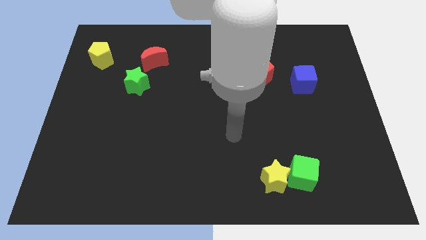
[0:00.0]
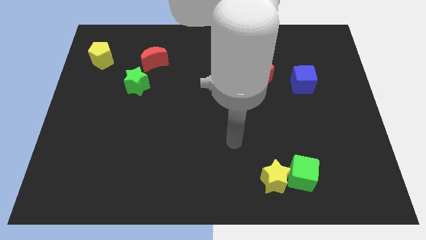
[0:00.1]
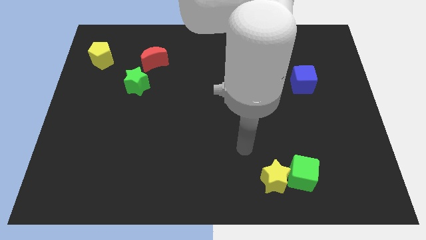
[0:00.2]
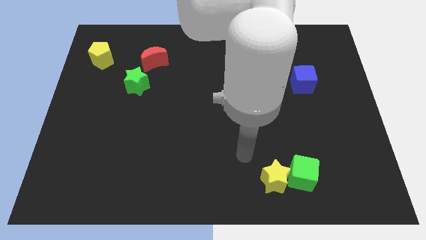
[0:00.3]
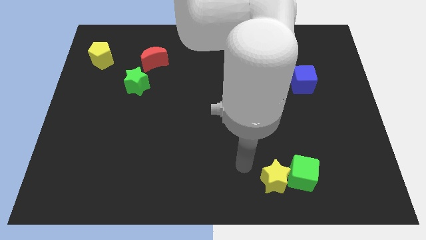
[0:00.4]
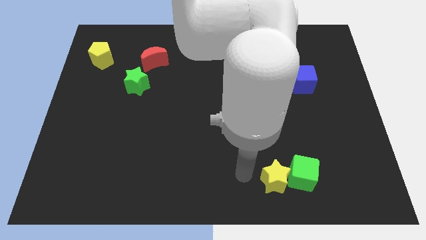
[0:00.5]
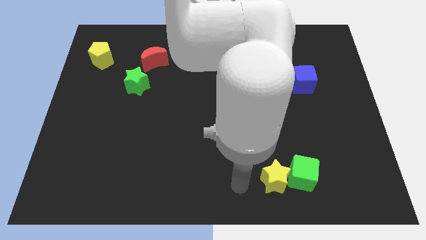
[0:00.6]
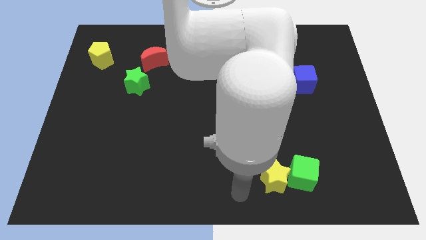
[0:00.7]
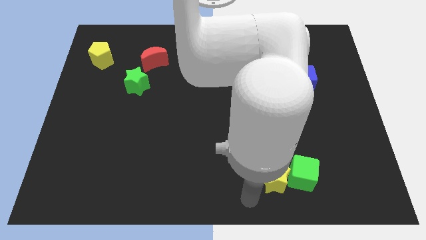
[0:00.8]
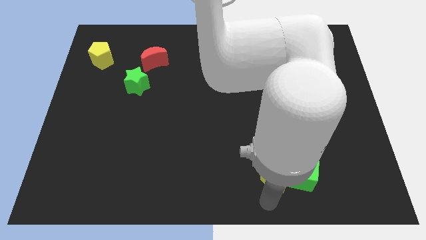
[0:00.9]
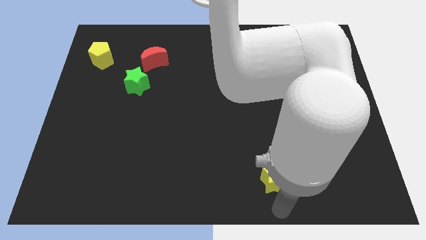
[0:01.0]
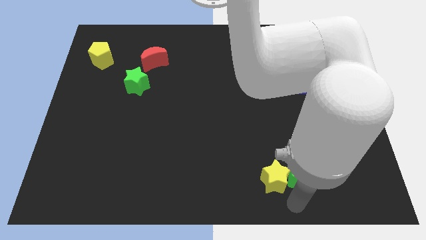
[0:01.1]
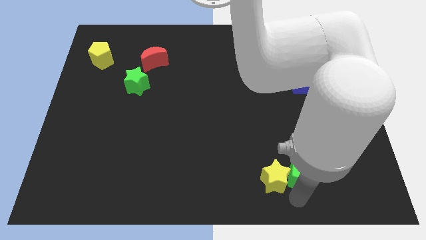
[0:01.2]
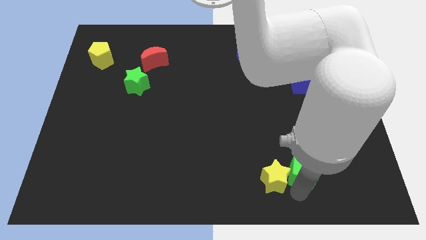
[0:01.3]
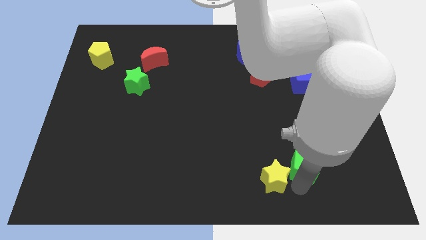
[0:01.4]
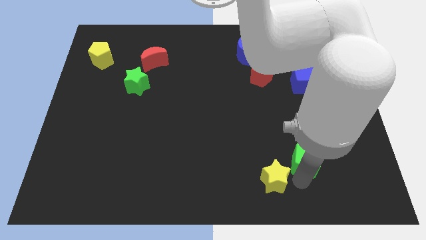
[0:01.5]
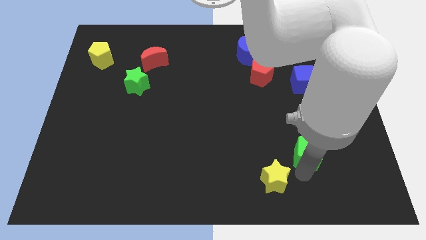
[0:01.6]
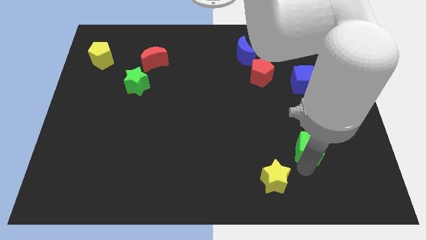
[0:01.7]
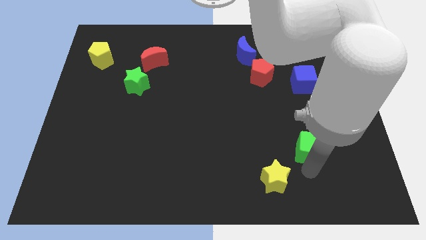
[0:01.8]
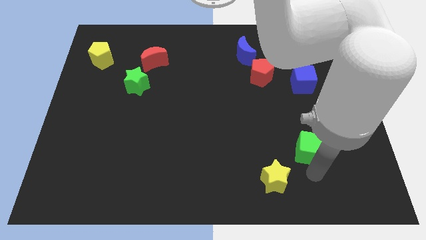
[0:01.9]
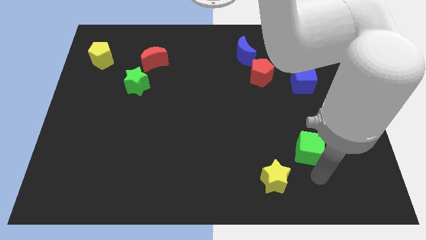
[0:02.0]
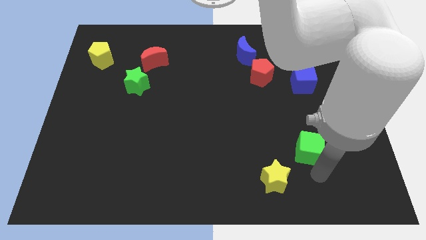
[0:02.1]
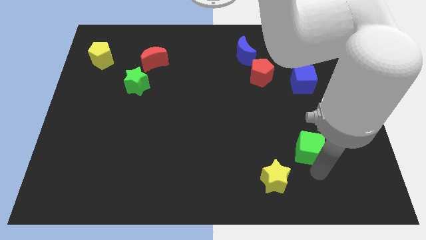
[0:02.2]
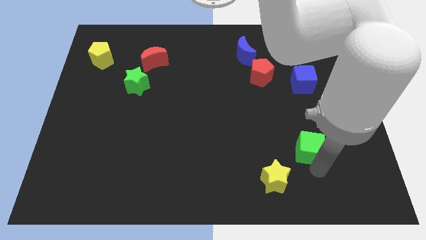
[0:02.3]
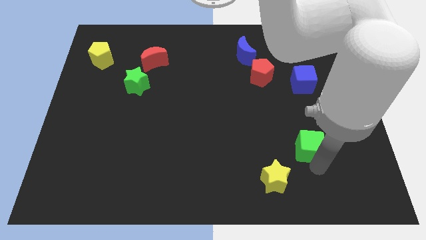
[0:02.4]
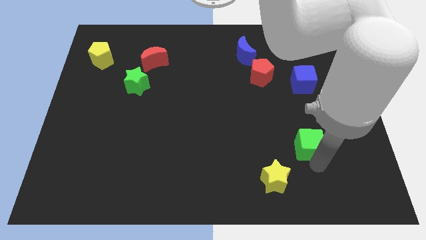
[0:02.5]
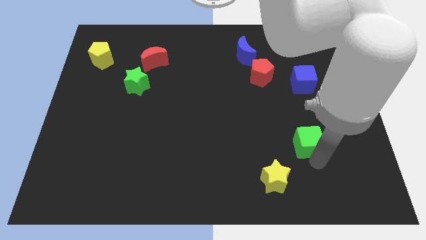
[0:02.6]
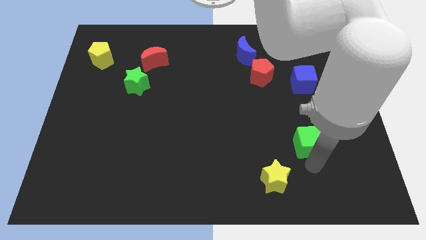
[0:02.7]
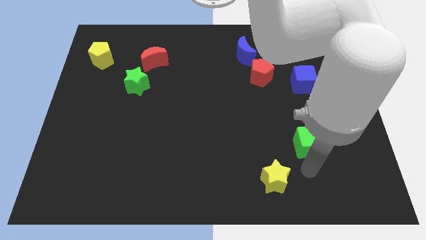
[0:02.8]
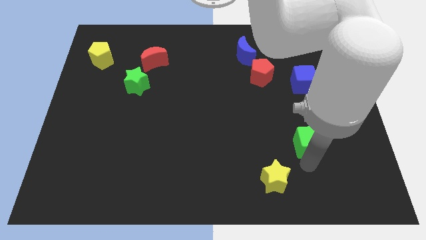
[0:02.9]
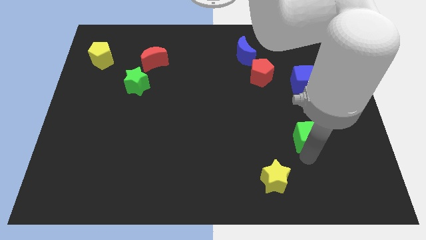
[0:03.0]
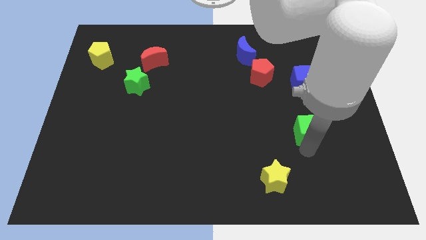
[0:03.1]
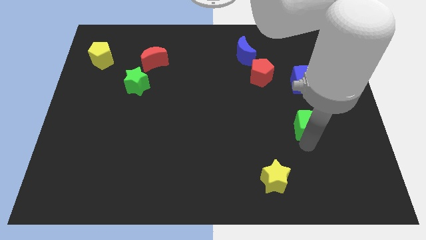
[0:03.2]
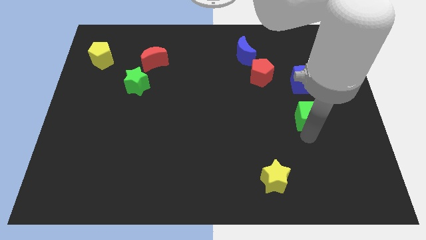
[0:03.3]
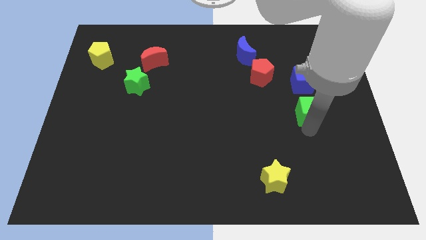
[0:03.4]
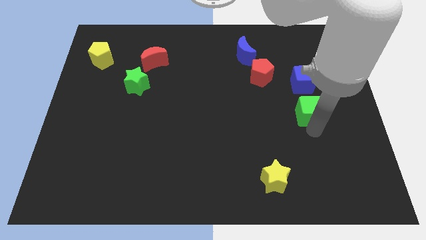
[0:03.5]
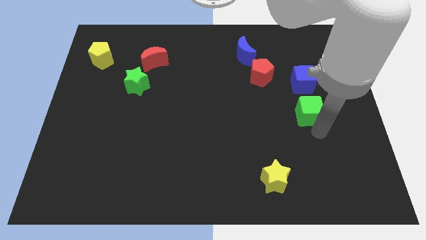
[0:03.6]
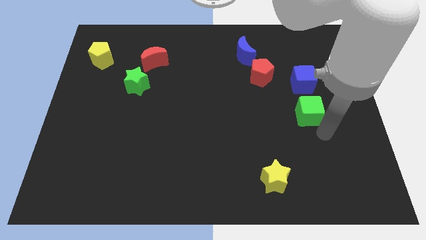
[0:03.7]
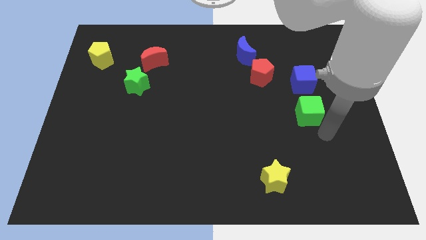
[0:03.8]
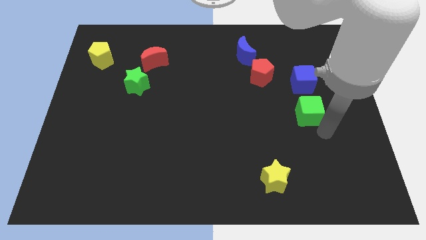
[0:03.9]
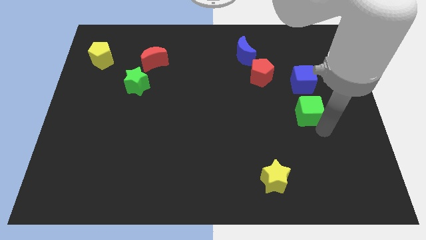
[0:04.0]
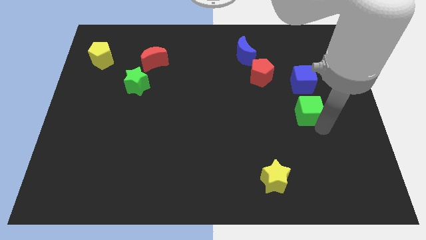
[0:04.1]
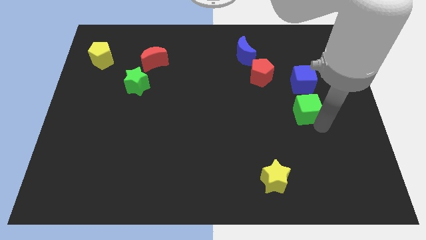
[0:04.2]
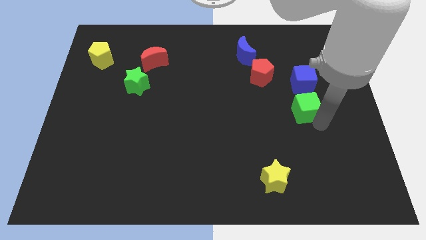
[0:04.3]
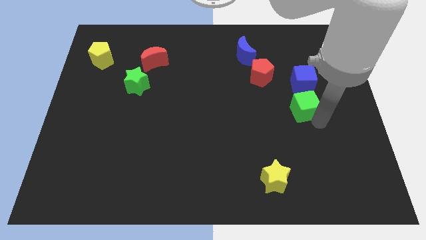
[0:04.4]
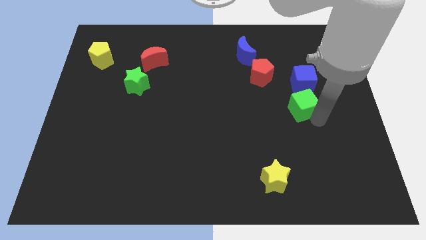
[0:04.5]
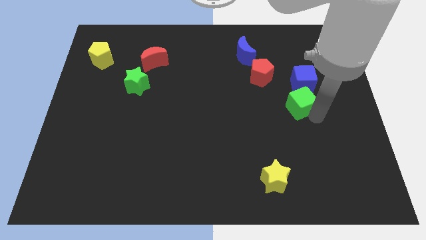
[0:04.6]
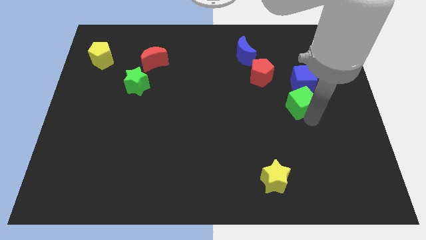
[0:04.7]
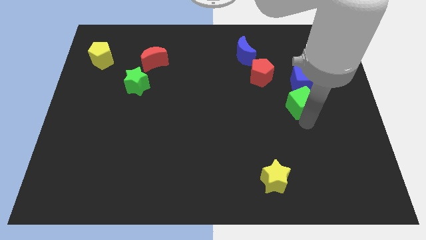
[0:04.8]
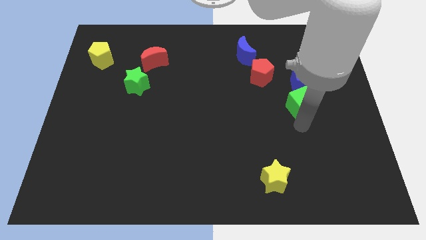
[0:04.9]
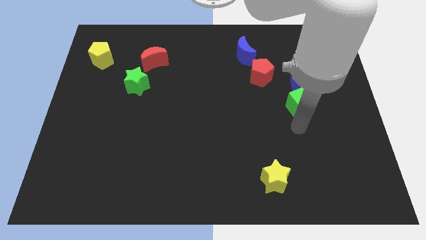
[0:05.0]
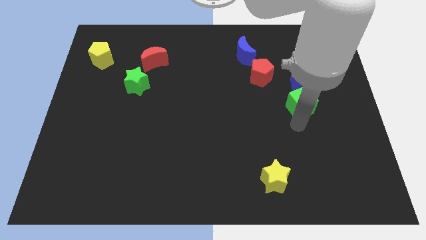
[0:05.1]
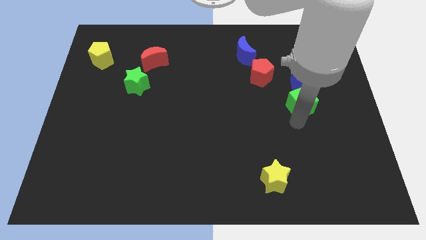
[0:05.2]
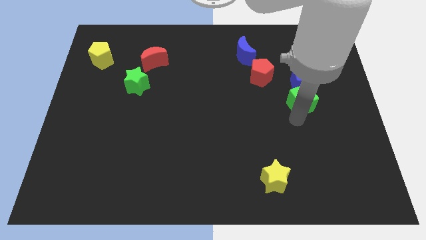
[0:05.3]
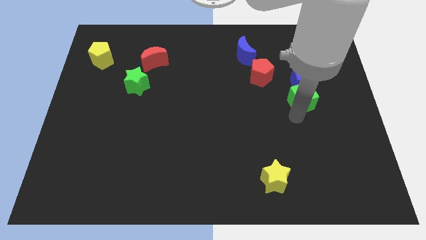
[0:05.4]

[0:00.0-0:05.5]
put the green cube close to the blue cube

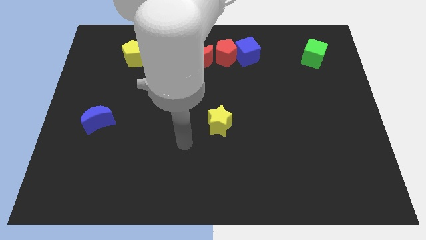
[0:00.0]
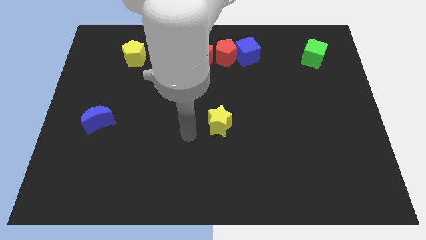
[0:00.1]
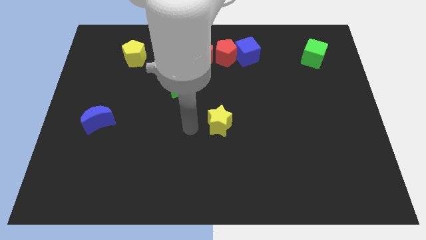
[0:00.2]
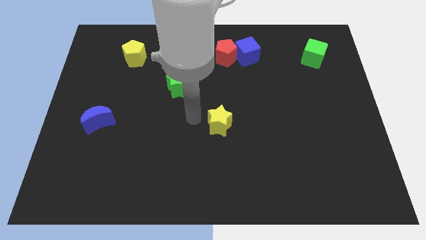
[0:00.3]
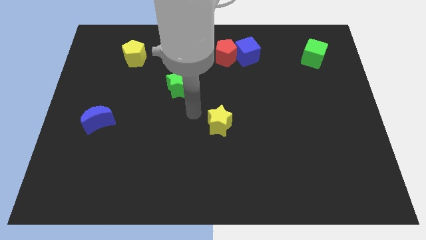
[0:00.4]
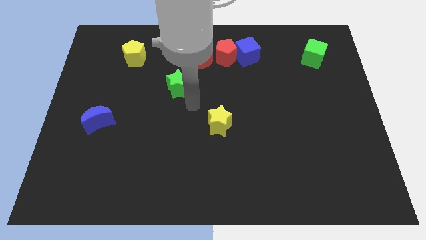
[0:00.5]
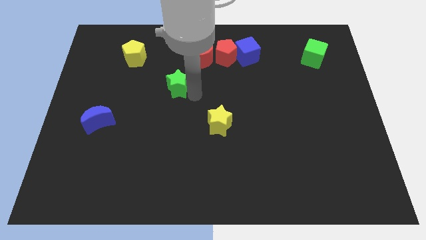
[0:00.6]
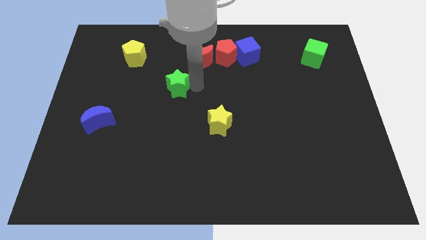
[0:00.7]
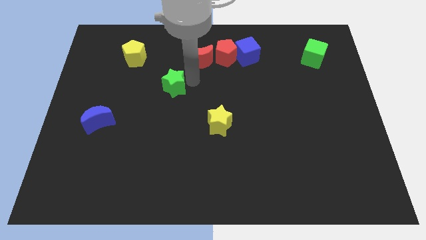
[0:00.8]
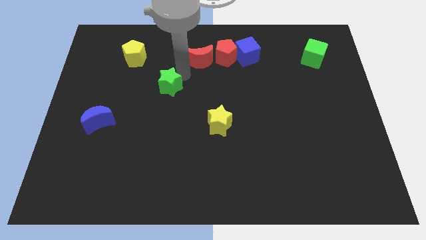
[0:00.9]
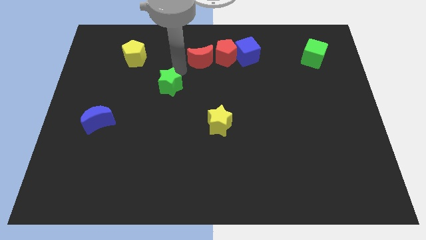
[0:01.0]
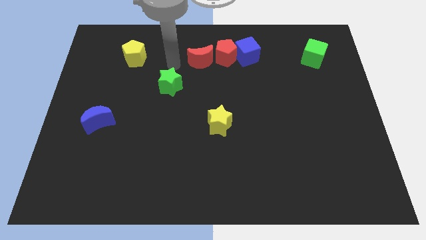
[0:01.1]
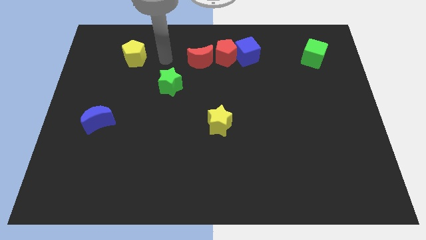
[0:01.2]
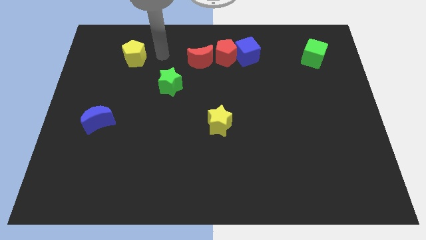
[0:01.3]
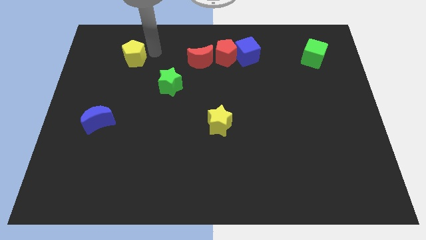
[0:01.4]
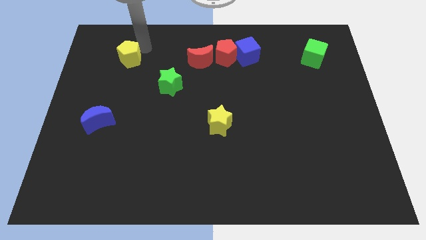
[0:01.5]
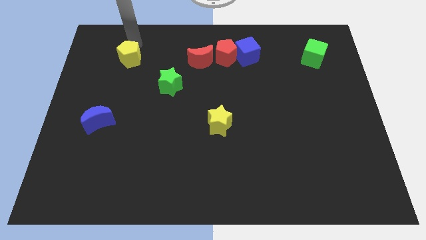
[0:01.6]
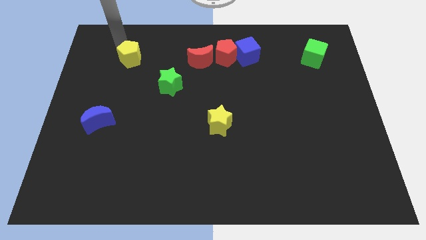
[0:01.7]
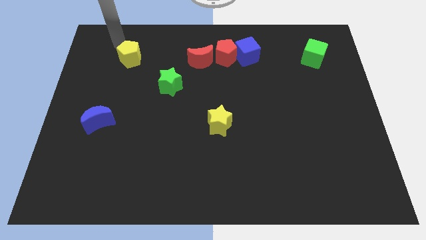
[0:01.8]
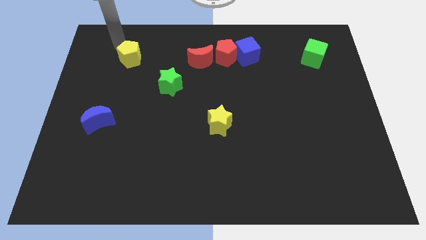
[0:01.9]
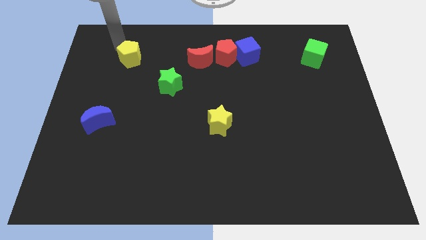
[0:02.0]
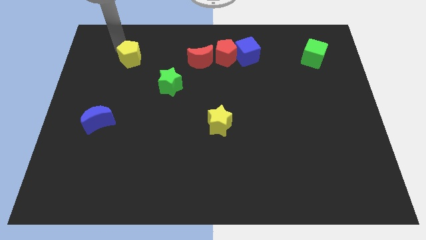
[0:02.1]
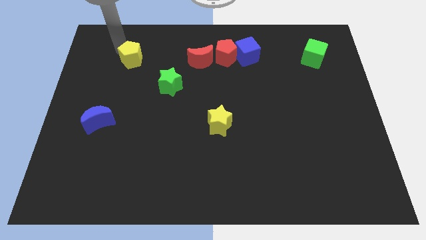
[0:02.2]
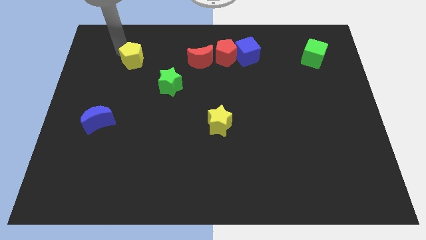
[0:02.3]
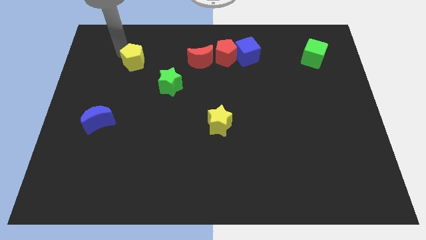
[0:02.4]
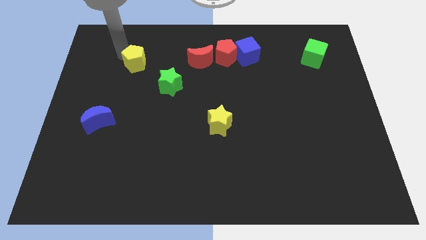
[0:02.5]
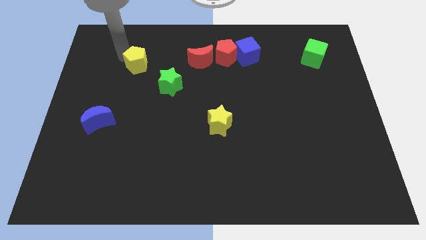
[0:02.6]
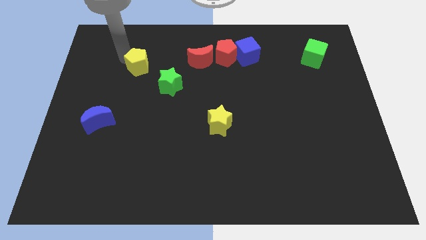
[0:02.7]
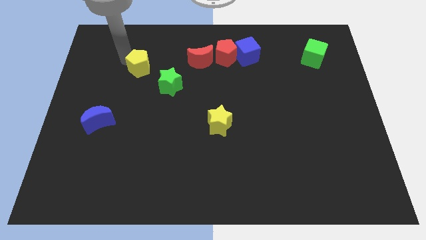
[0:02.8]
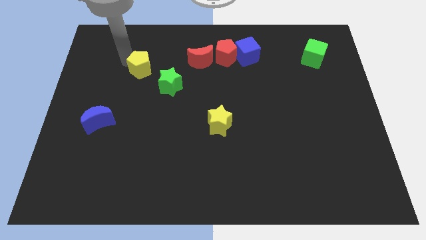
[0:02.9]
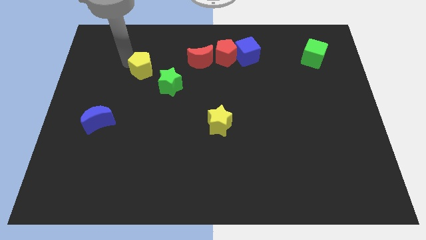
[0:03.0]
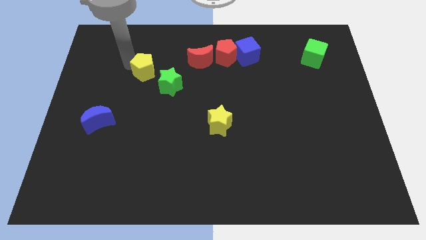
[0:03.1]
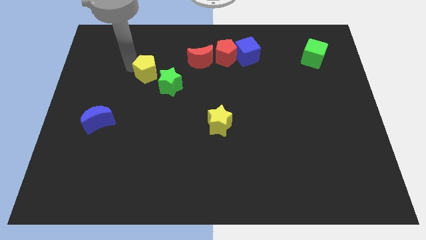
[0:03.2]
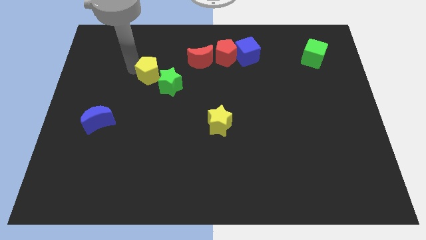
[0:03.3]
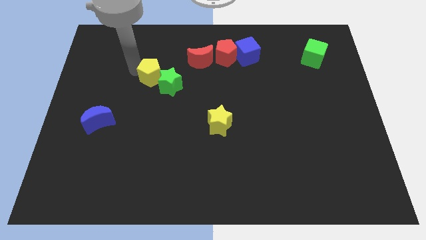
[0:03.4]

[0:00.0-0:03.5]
move the yellow pentagon to the green star
